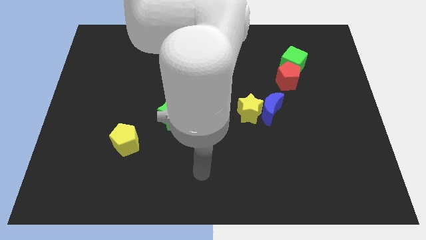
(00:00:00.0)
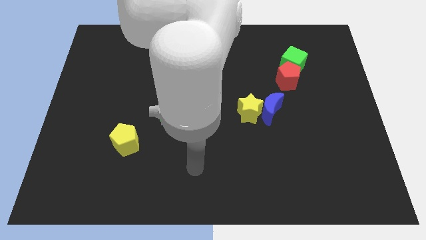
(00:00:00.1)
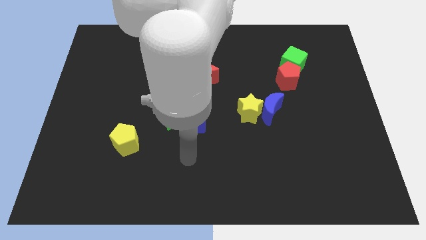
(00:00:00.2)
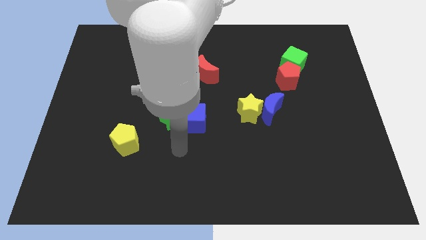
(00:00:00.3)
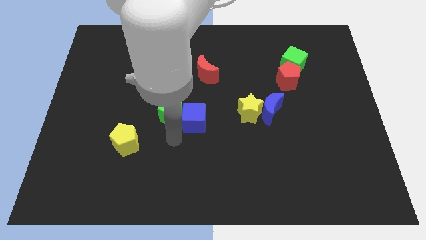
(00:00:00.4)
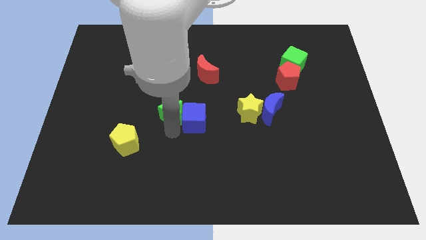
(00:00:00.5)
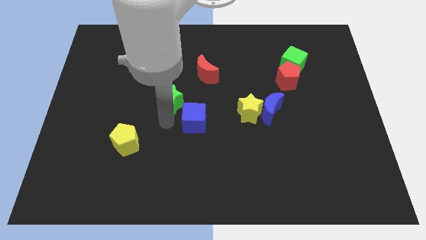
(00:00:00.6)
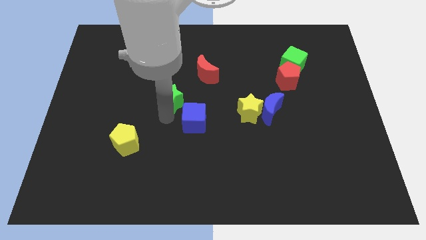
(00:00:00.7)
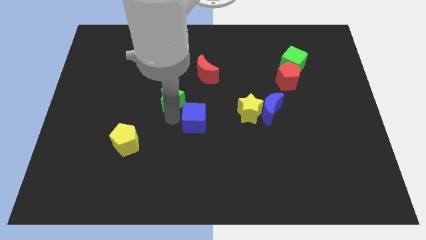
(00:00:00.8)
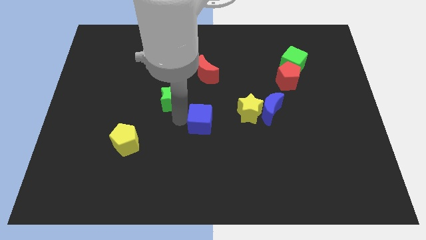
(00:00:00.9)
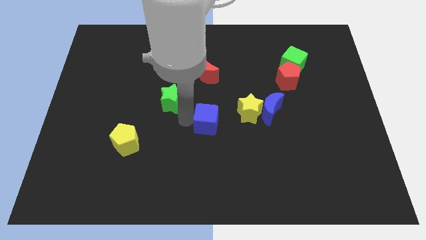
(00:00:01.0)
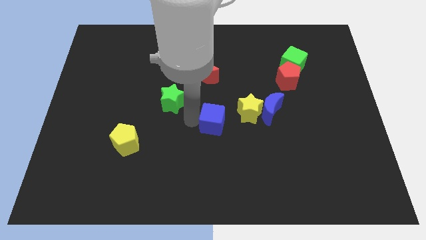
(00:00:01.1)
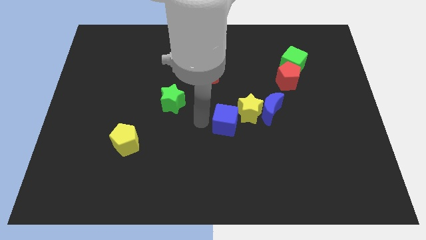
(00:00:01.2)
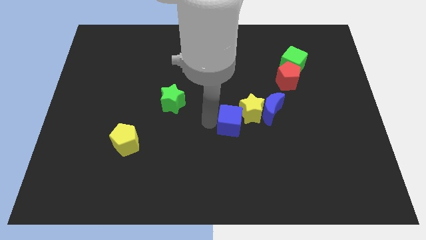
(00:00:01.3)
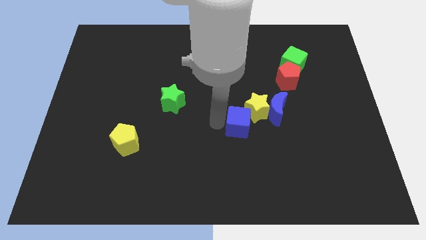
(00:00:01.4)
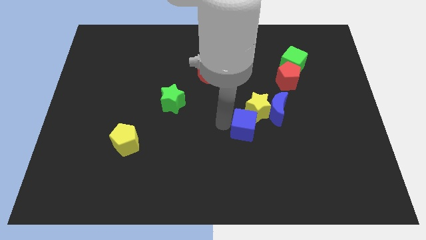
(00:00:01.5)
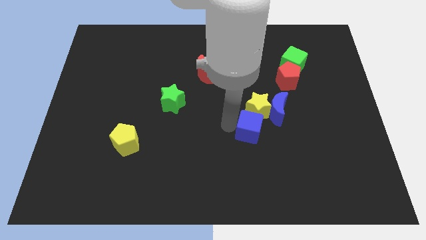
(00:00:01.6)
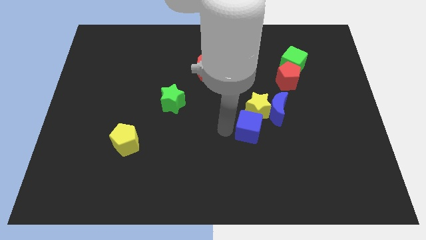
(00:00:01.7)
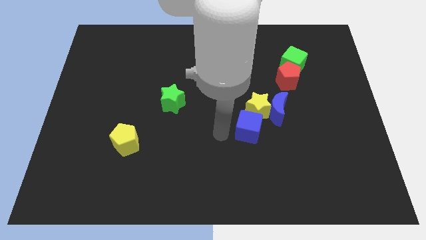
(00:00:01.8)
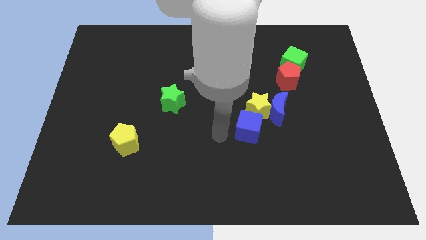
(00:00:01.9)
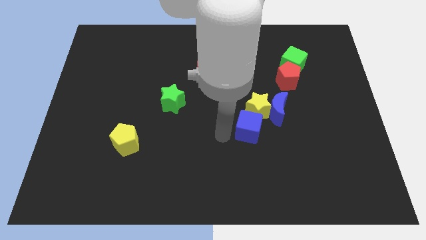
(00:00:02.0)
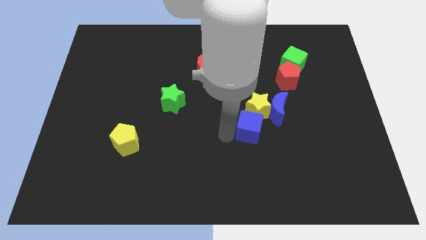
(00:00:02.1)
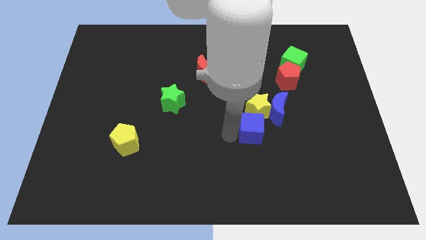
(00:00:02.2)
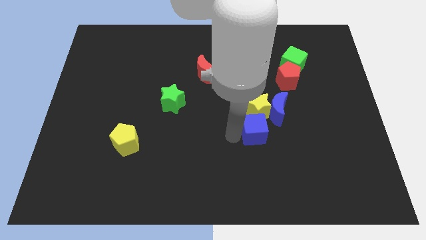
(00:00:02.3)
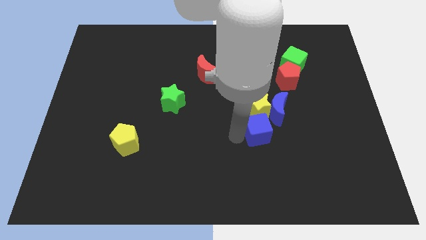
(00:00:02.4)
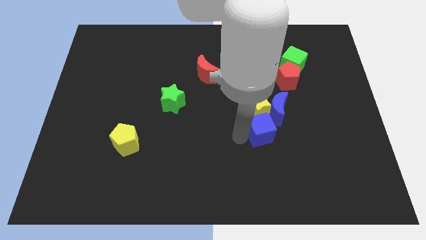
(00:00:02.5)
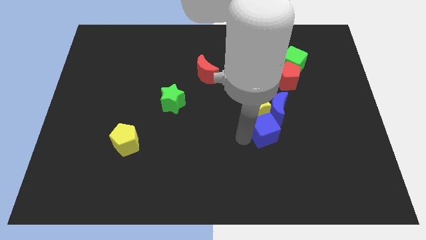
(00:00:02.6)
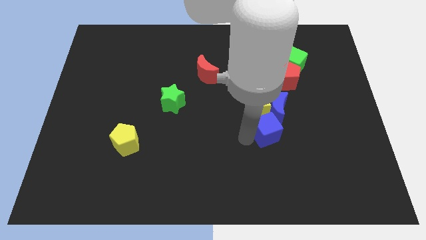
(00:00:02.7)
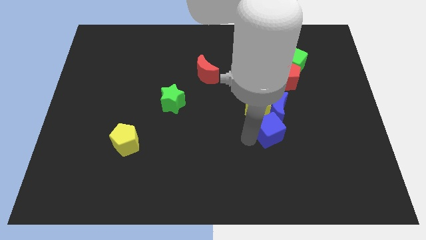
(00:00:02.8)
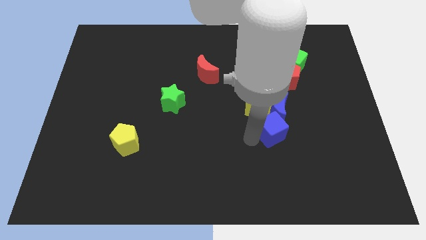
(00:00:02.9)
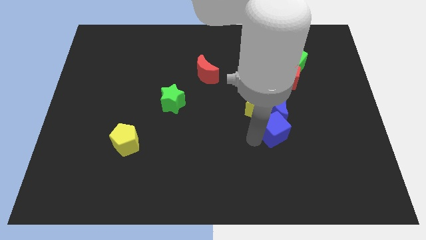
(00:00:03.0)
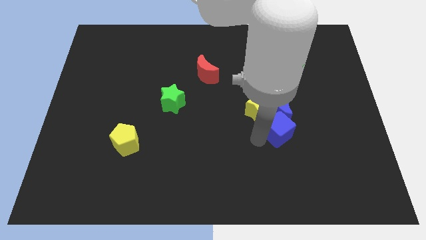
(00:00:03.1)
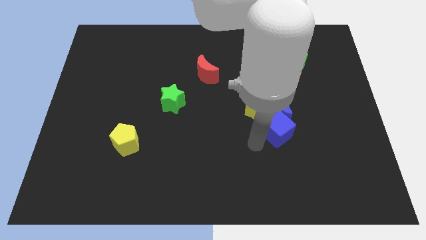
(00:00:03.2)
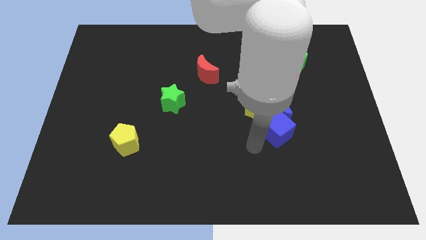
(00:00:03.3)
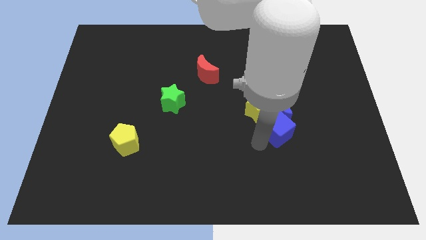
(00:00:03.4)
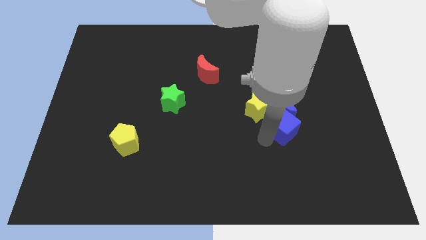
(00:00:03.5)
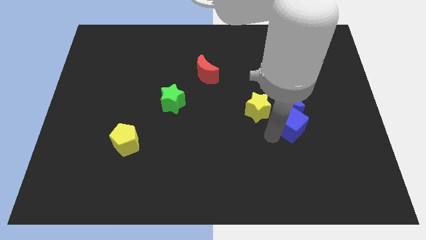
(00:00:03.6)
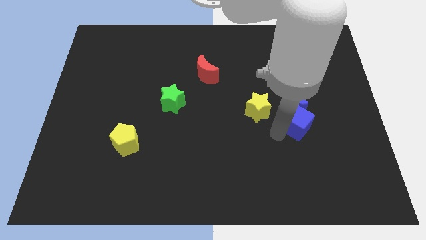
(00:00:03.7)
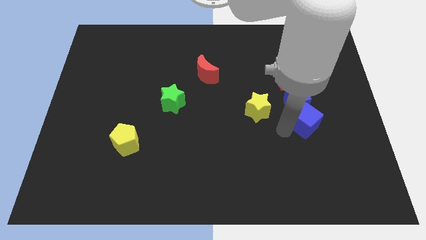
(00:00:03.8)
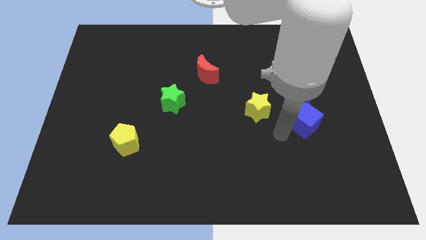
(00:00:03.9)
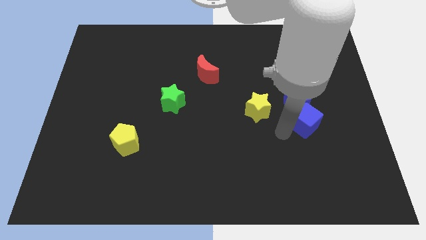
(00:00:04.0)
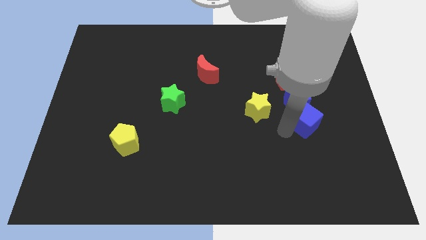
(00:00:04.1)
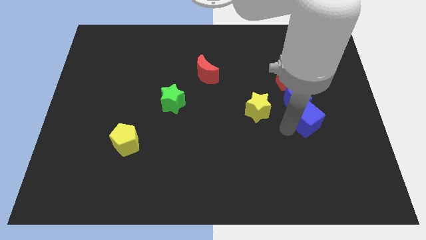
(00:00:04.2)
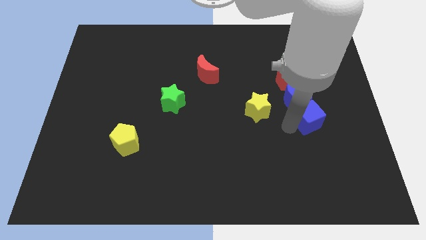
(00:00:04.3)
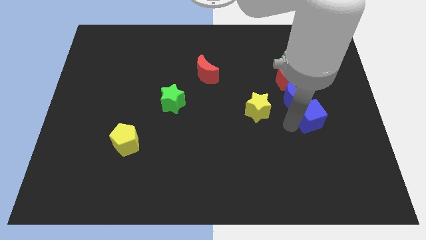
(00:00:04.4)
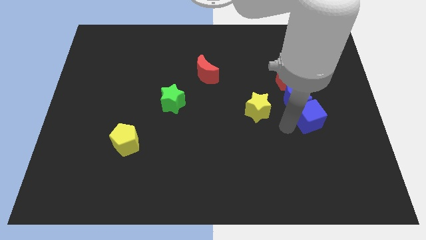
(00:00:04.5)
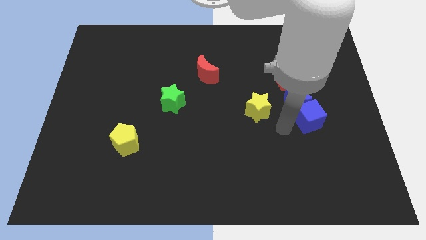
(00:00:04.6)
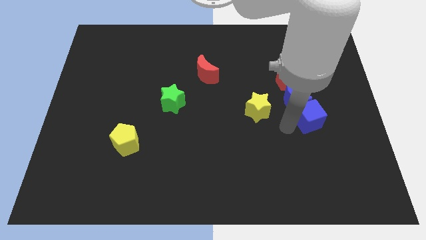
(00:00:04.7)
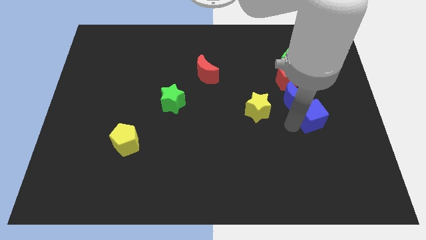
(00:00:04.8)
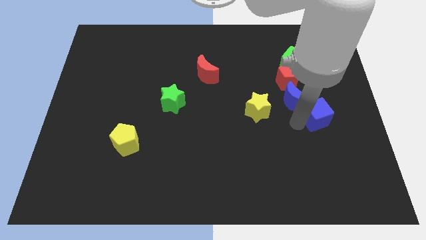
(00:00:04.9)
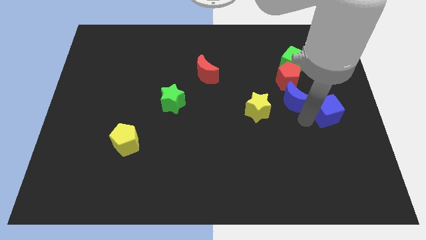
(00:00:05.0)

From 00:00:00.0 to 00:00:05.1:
put the blue cube to the right side of the board
